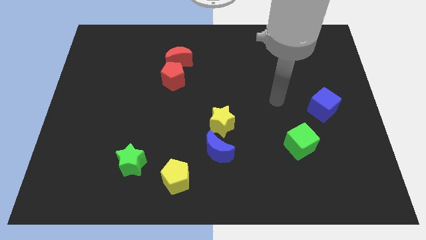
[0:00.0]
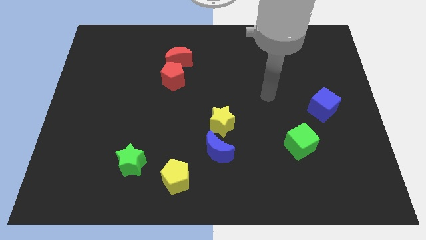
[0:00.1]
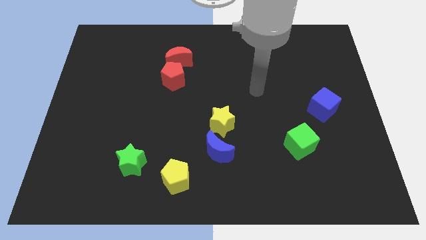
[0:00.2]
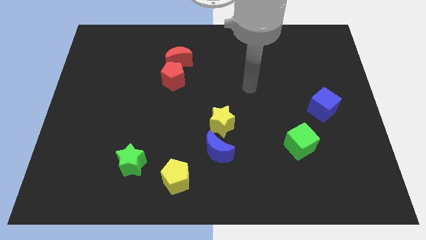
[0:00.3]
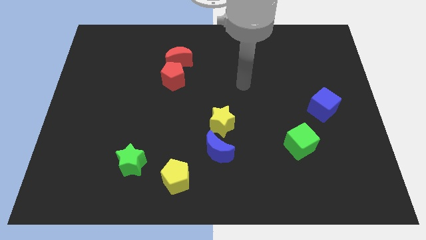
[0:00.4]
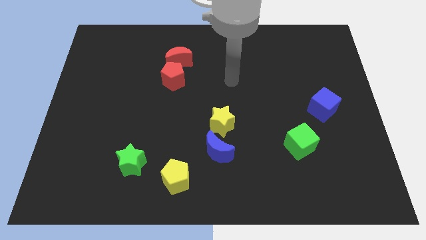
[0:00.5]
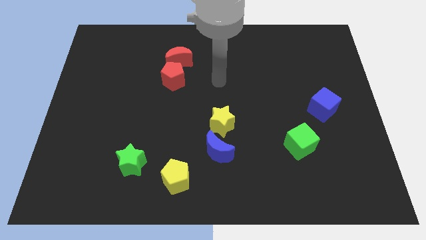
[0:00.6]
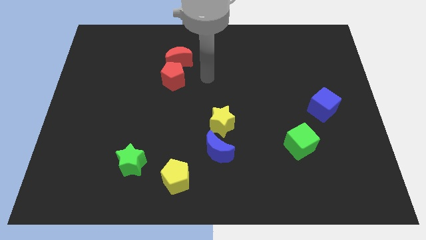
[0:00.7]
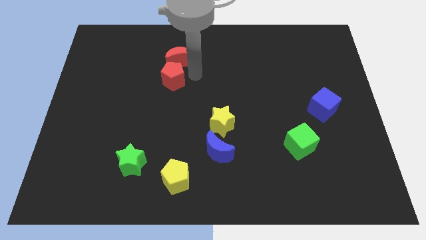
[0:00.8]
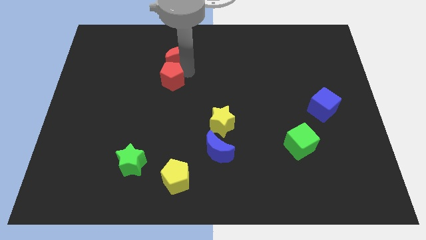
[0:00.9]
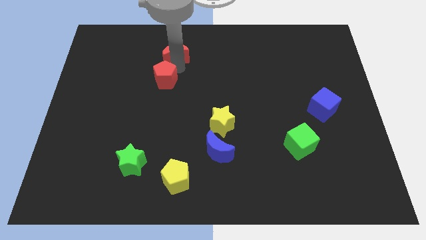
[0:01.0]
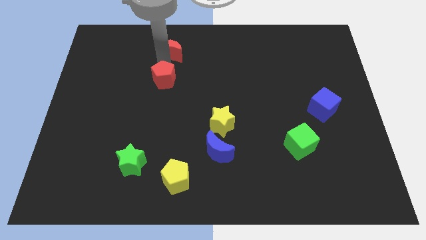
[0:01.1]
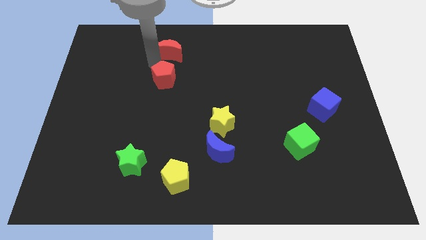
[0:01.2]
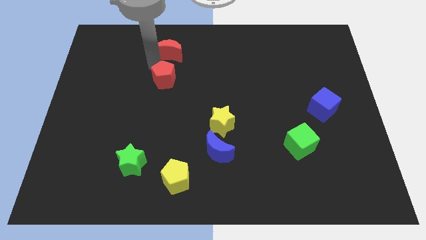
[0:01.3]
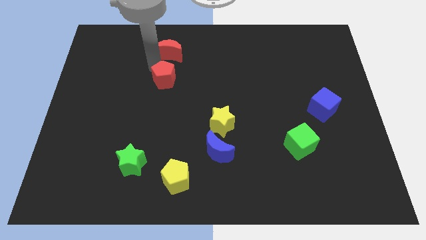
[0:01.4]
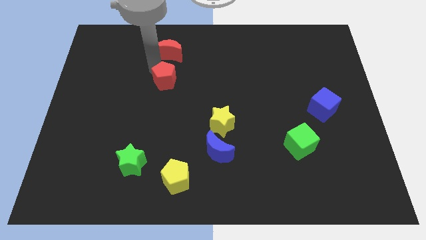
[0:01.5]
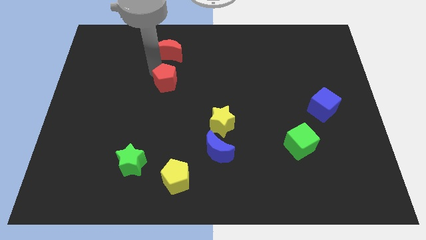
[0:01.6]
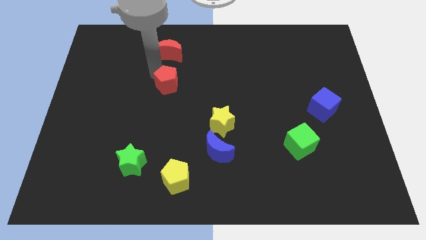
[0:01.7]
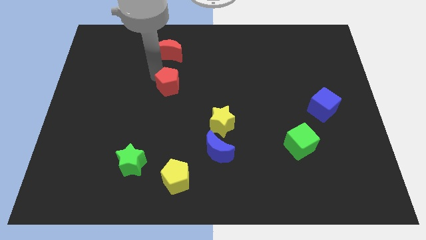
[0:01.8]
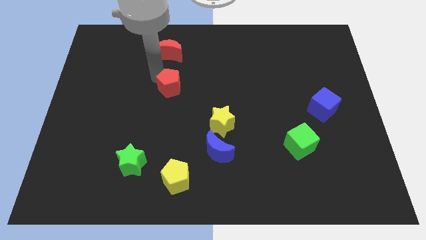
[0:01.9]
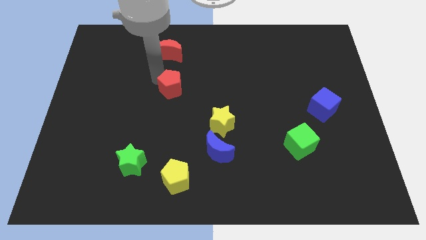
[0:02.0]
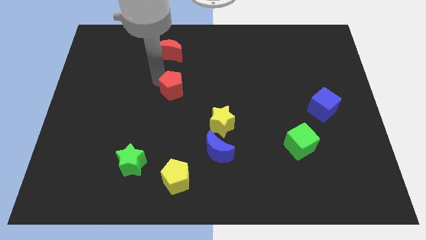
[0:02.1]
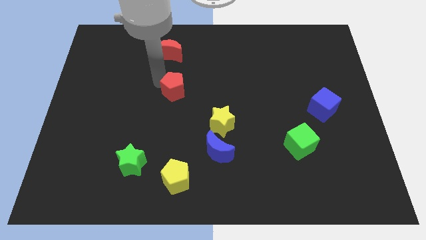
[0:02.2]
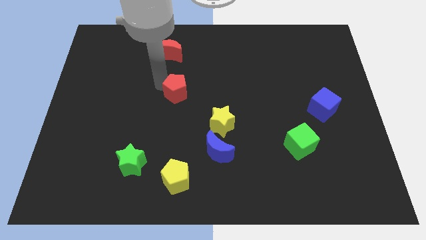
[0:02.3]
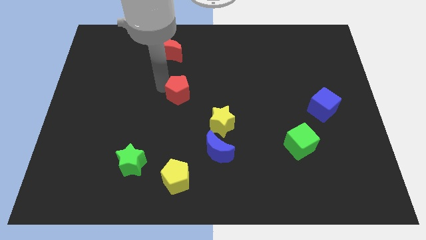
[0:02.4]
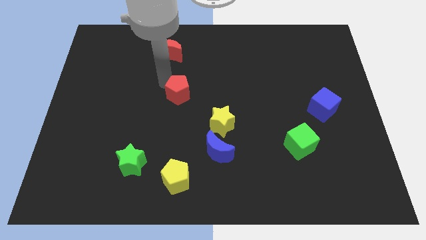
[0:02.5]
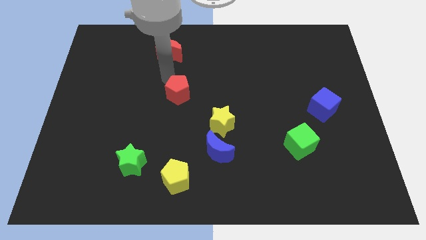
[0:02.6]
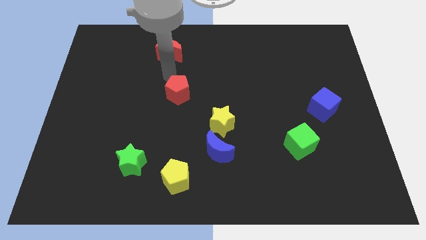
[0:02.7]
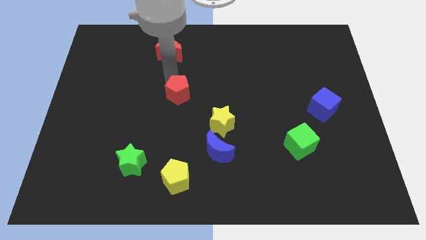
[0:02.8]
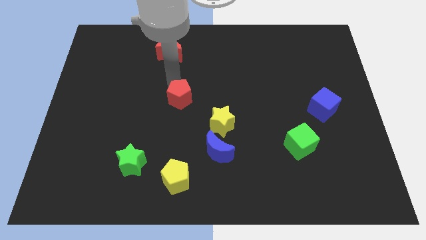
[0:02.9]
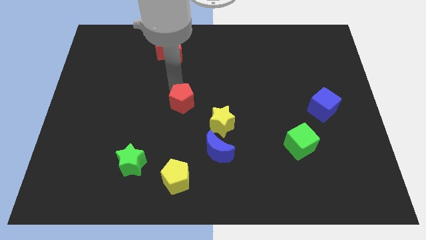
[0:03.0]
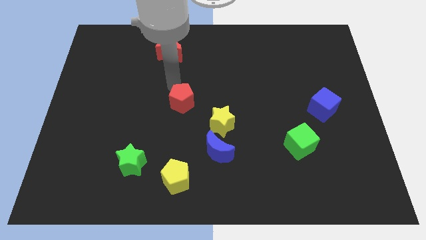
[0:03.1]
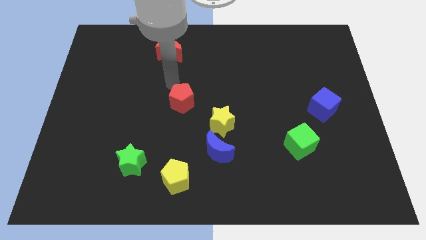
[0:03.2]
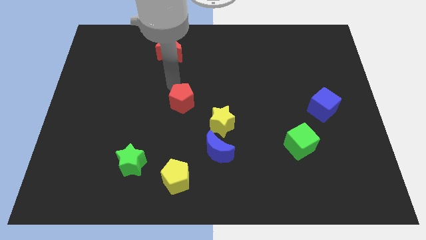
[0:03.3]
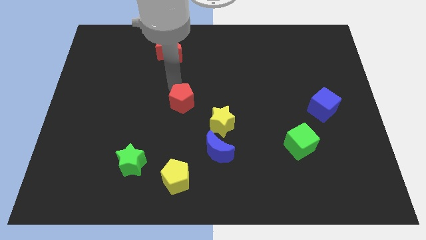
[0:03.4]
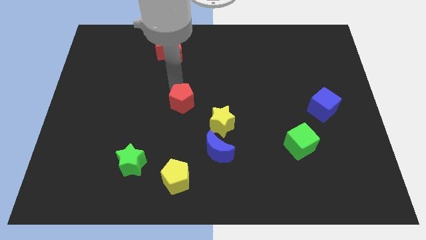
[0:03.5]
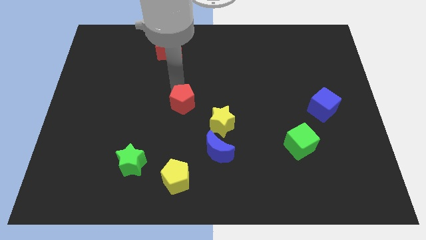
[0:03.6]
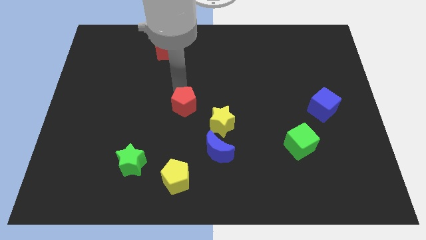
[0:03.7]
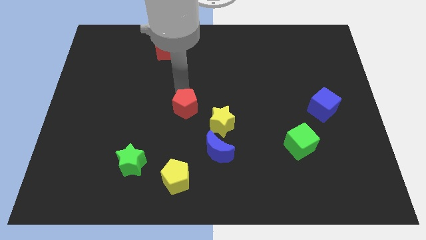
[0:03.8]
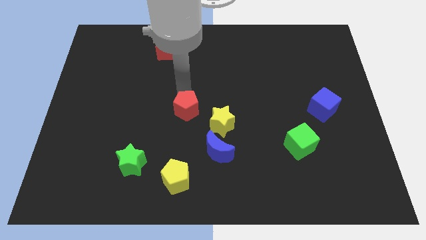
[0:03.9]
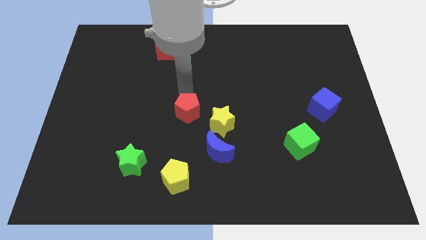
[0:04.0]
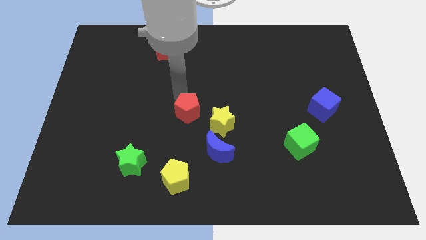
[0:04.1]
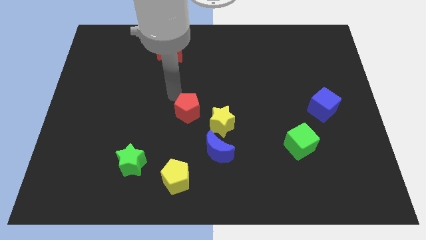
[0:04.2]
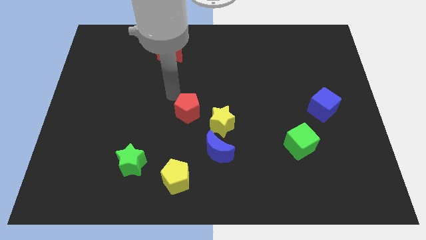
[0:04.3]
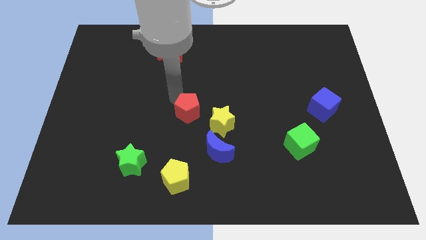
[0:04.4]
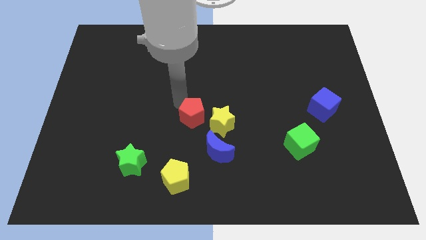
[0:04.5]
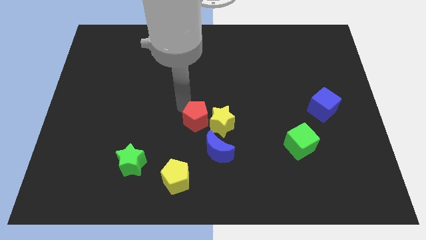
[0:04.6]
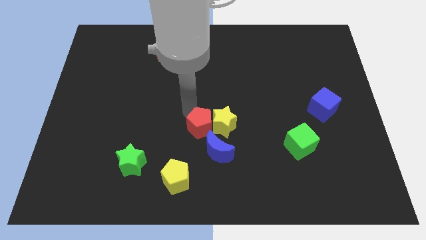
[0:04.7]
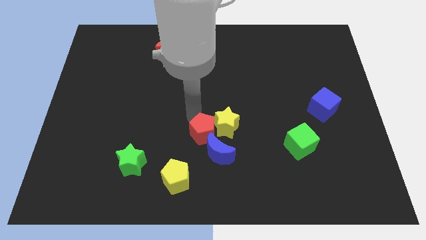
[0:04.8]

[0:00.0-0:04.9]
push the red pentagon towards the blue moon

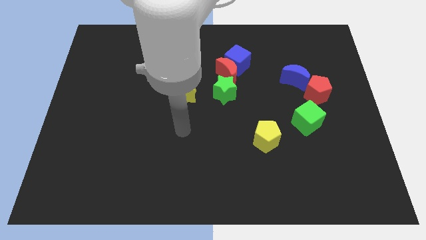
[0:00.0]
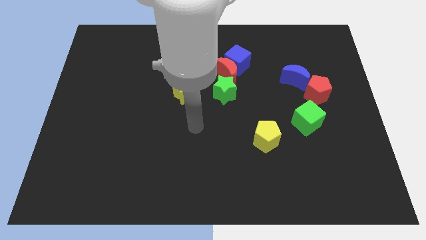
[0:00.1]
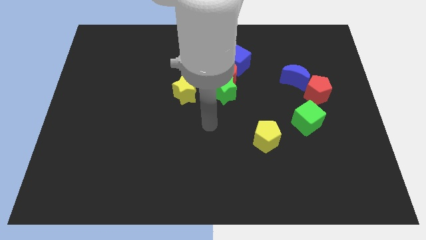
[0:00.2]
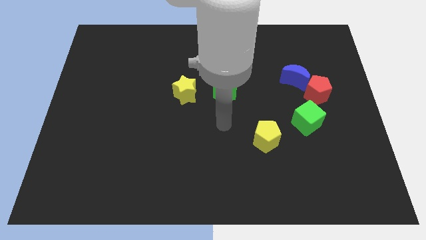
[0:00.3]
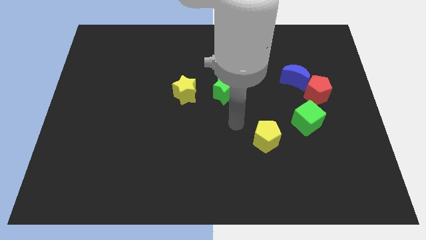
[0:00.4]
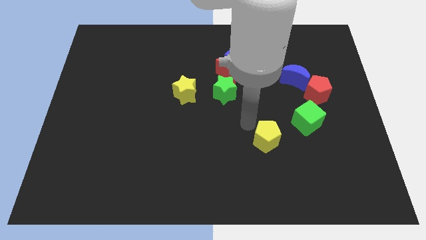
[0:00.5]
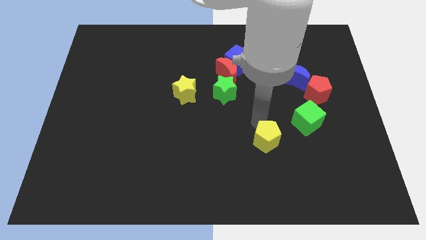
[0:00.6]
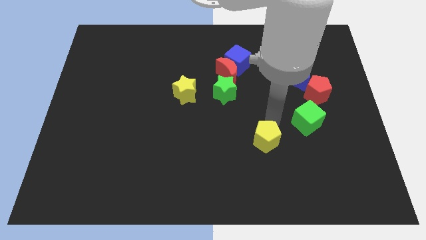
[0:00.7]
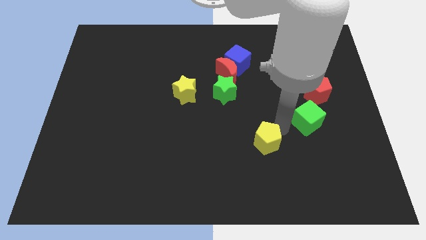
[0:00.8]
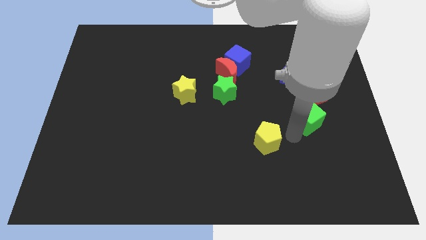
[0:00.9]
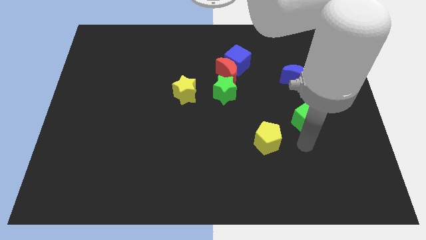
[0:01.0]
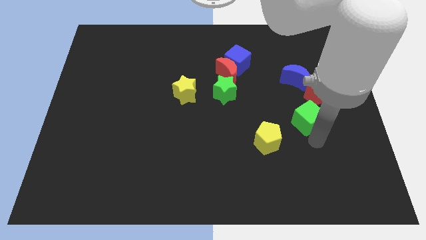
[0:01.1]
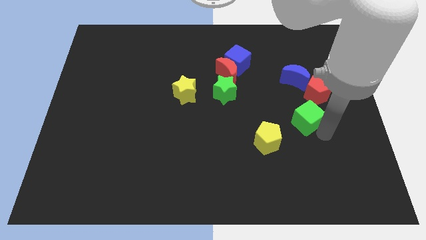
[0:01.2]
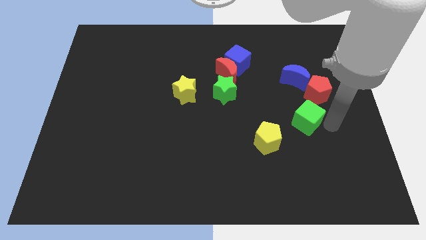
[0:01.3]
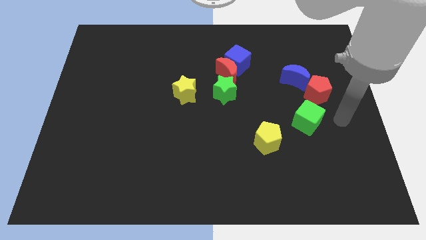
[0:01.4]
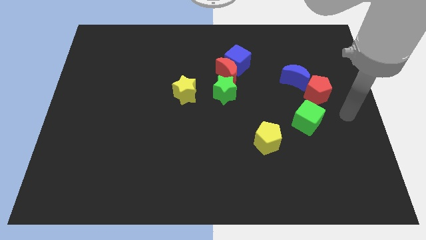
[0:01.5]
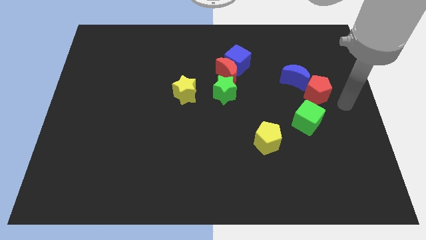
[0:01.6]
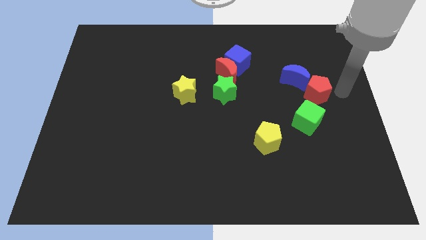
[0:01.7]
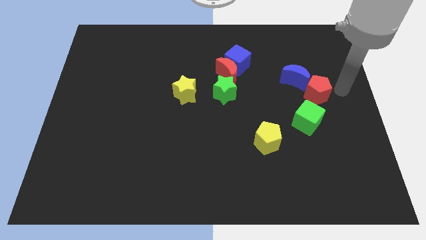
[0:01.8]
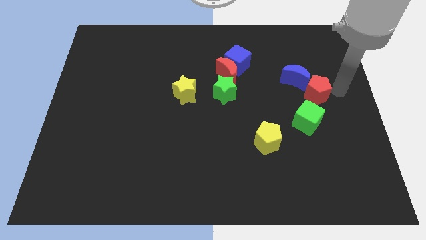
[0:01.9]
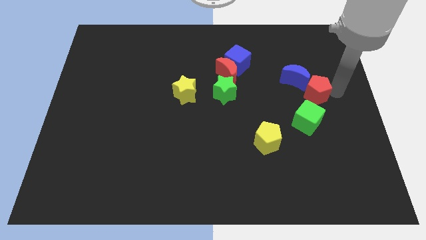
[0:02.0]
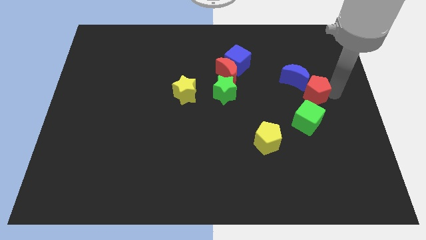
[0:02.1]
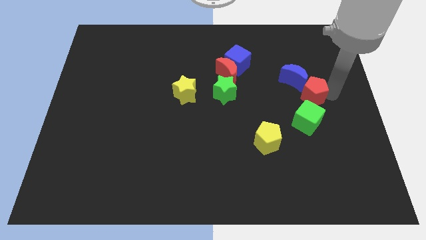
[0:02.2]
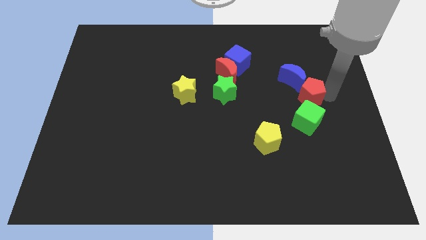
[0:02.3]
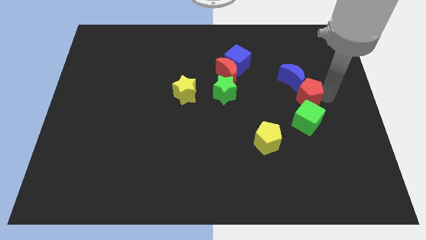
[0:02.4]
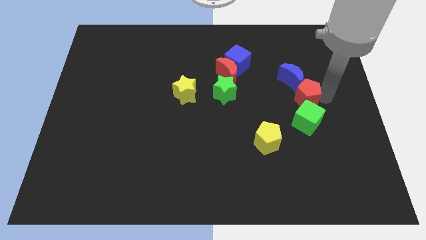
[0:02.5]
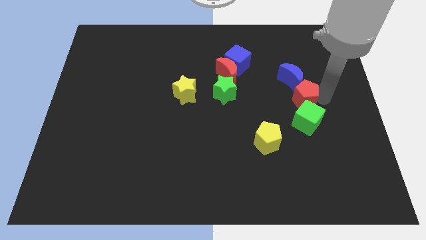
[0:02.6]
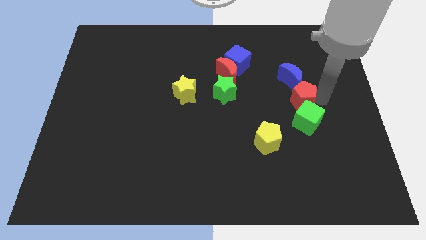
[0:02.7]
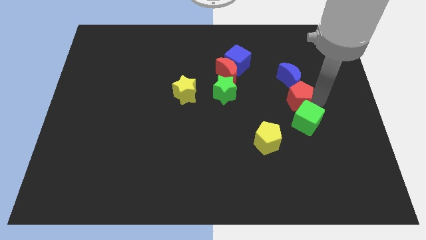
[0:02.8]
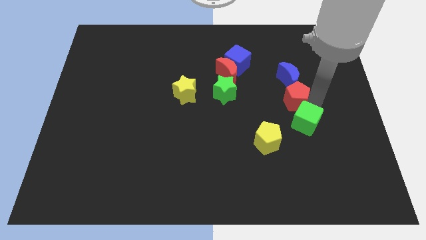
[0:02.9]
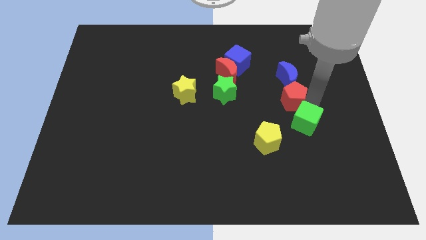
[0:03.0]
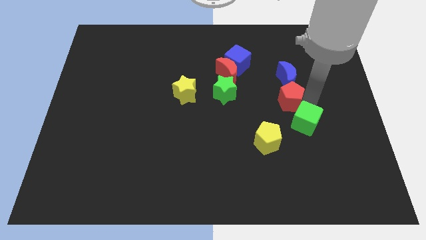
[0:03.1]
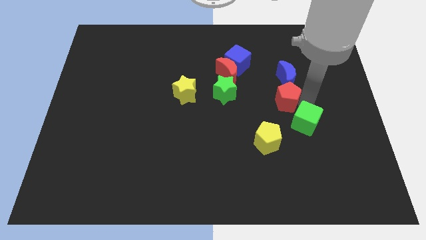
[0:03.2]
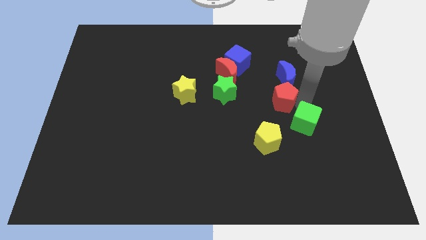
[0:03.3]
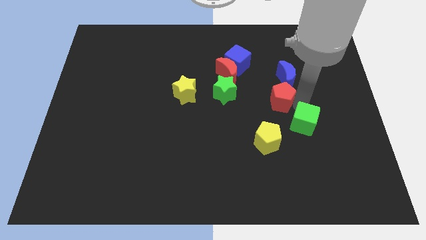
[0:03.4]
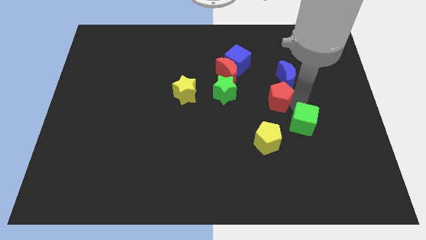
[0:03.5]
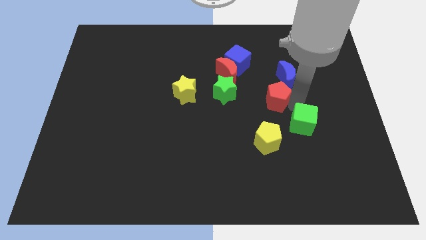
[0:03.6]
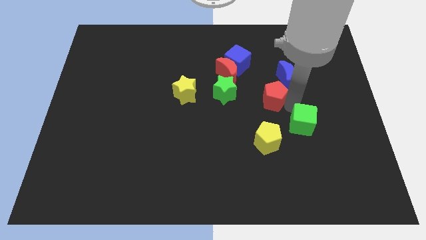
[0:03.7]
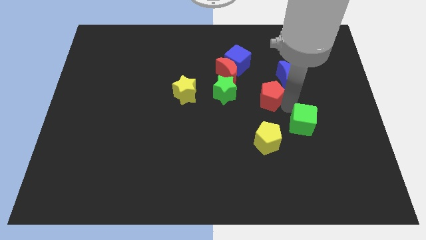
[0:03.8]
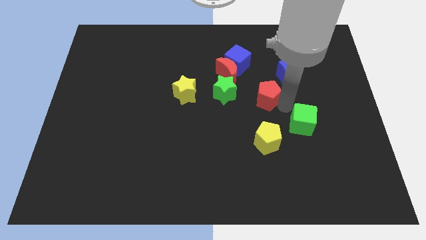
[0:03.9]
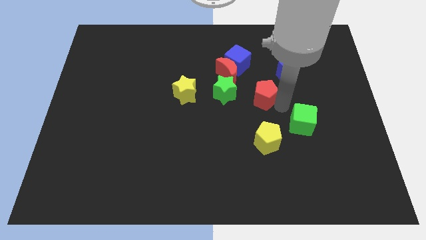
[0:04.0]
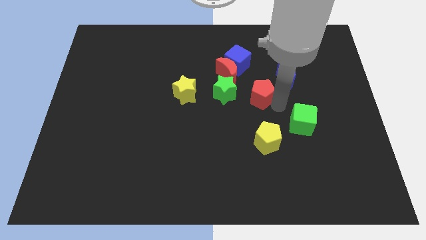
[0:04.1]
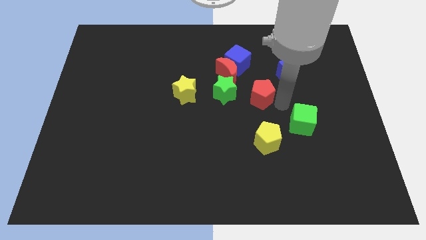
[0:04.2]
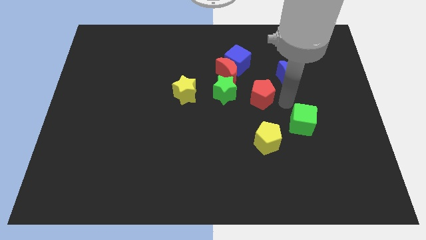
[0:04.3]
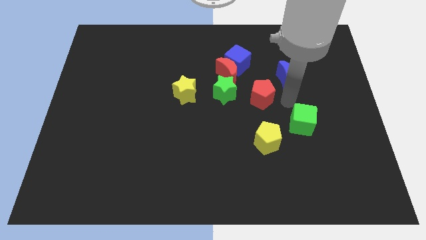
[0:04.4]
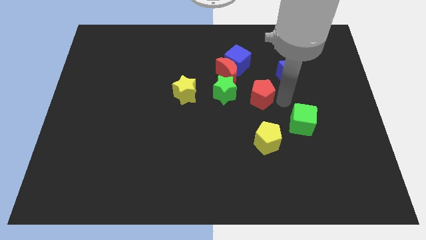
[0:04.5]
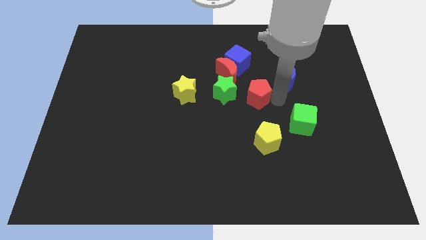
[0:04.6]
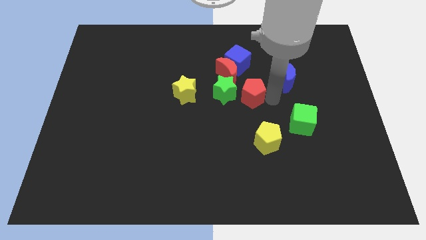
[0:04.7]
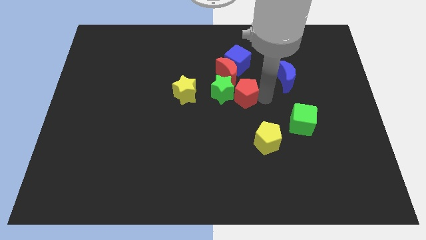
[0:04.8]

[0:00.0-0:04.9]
push the red pentagon to the green star
